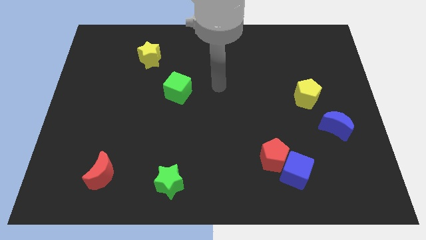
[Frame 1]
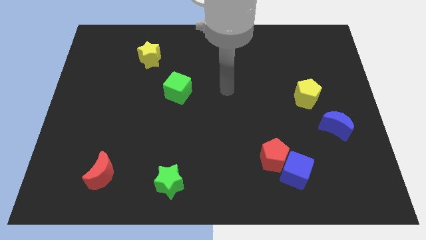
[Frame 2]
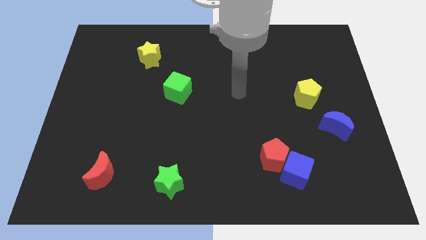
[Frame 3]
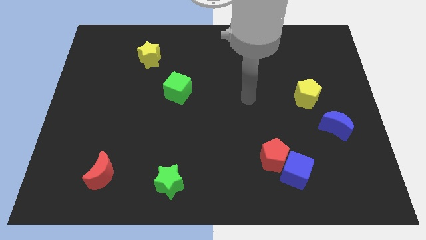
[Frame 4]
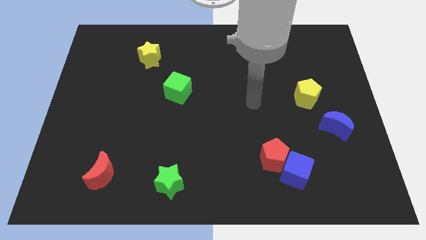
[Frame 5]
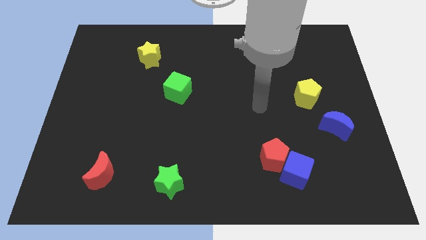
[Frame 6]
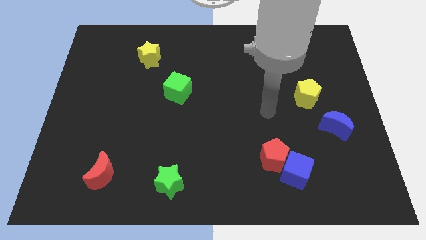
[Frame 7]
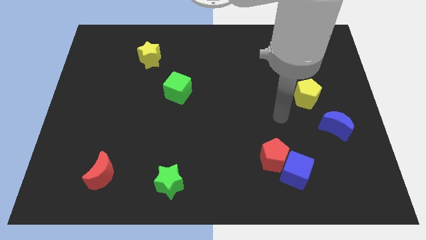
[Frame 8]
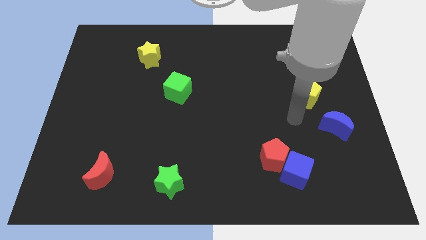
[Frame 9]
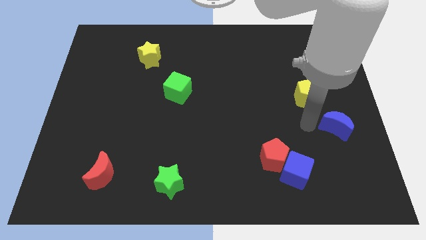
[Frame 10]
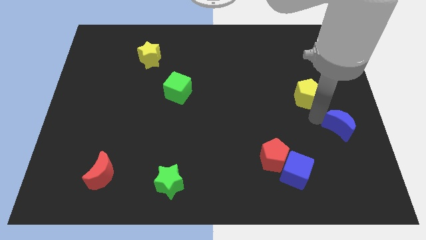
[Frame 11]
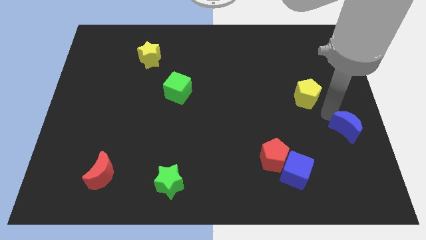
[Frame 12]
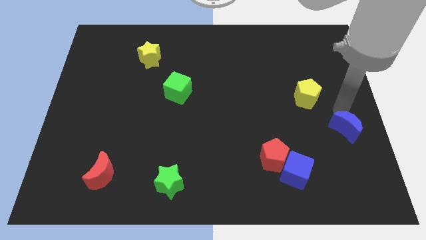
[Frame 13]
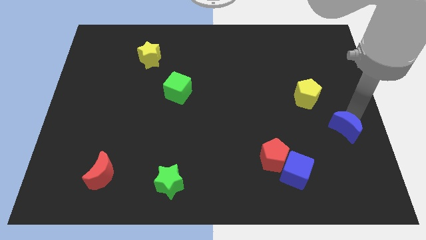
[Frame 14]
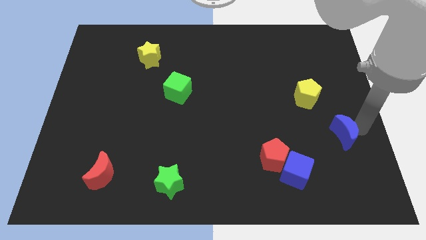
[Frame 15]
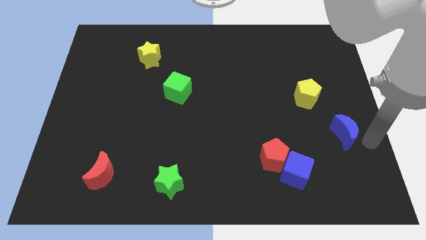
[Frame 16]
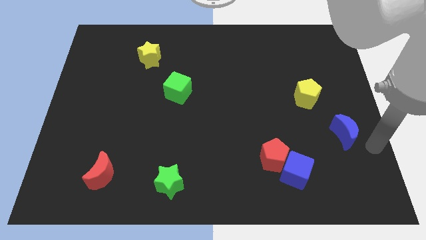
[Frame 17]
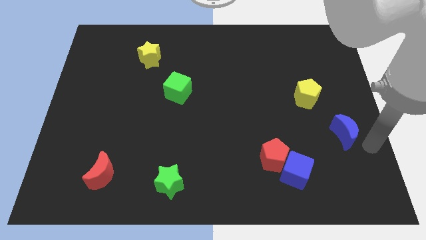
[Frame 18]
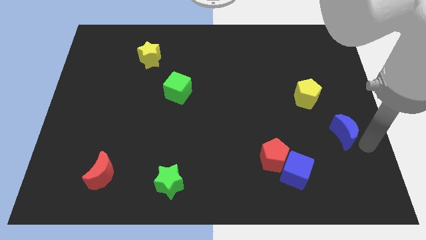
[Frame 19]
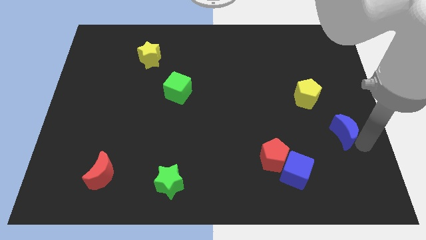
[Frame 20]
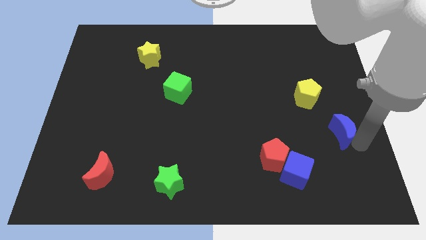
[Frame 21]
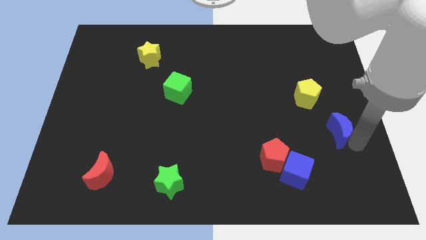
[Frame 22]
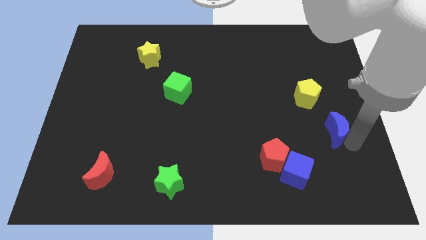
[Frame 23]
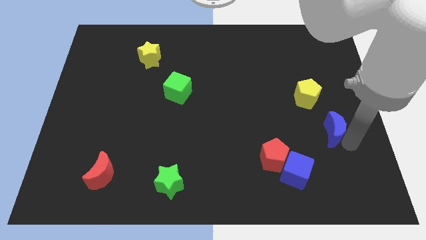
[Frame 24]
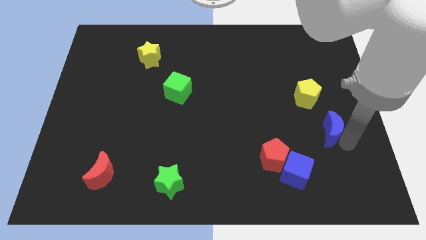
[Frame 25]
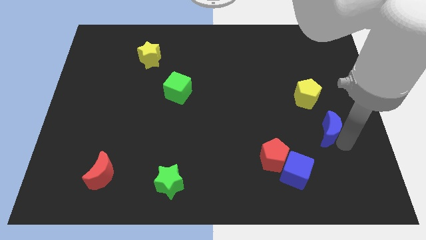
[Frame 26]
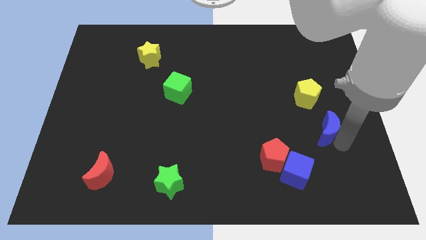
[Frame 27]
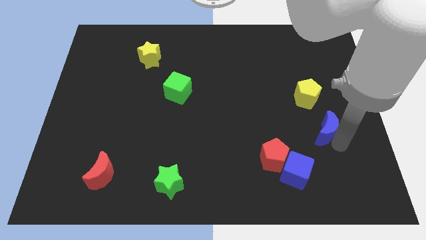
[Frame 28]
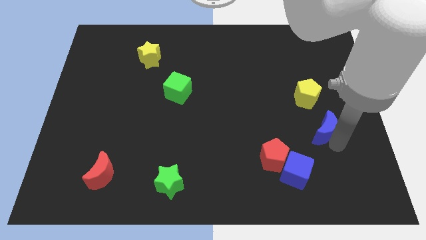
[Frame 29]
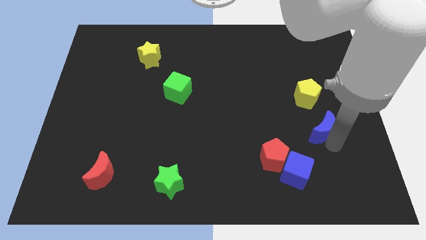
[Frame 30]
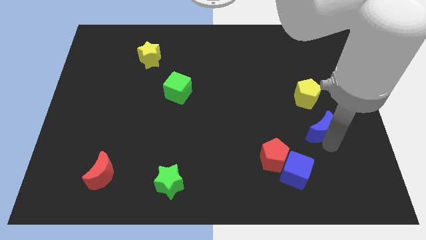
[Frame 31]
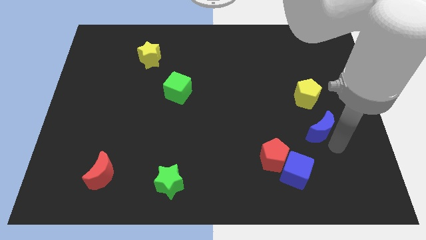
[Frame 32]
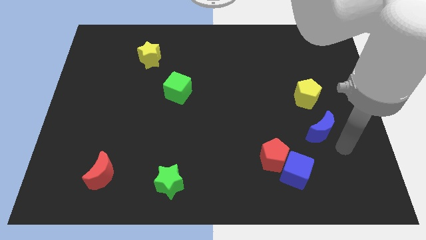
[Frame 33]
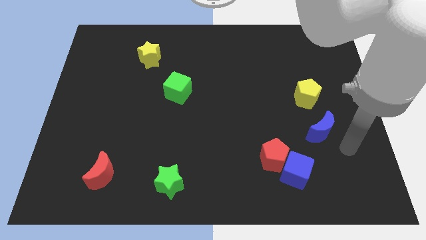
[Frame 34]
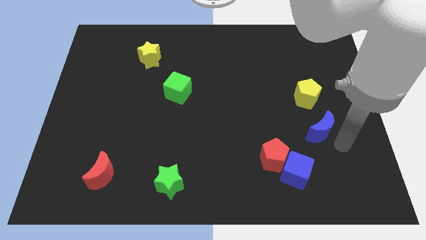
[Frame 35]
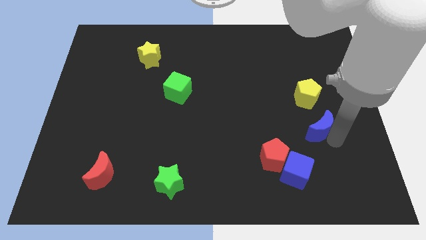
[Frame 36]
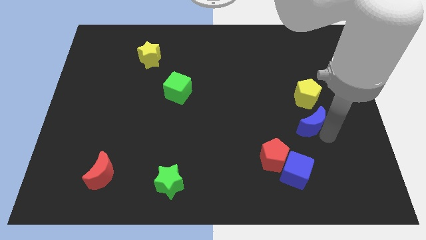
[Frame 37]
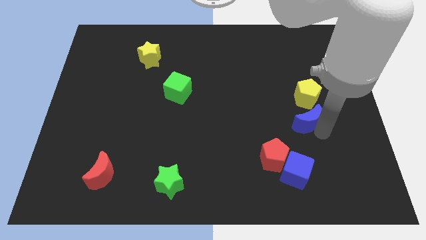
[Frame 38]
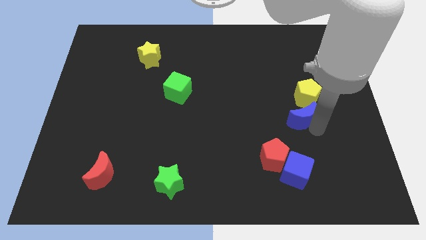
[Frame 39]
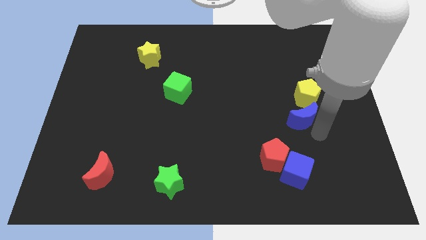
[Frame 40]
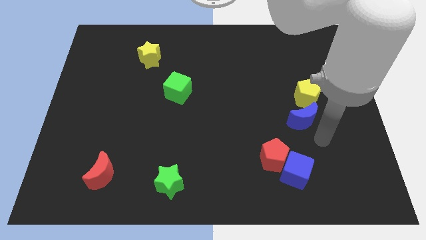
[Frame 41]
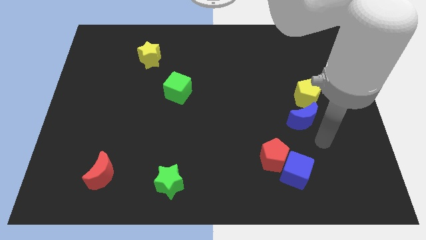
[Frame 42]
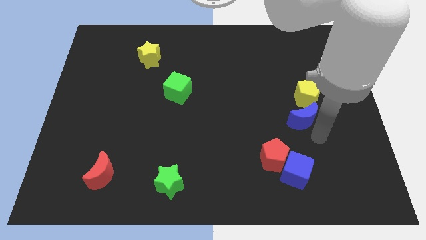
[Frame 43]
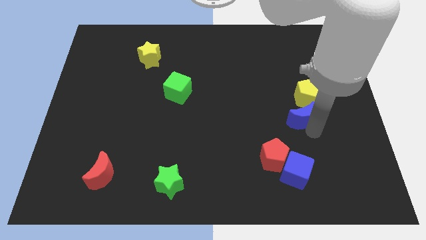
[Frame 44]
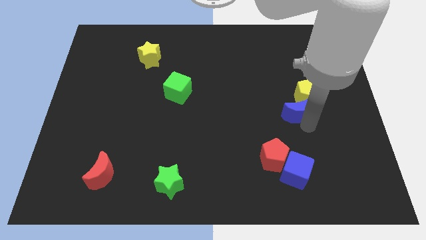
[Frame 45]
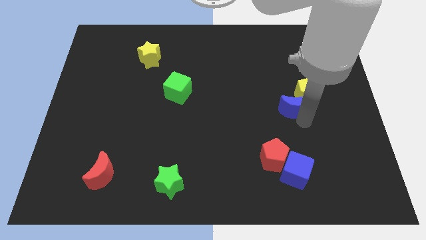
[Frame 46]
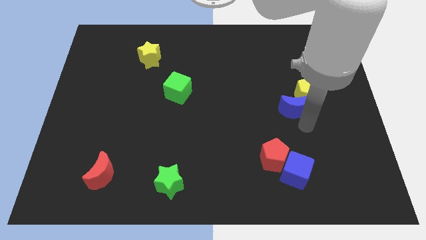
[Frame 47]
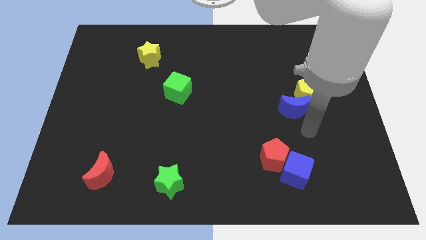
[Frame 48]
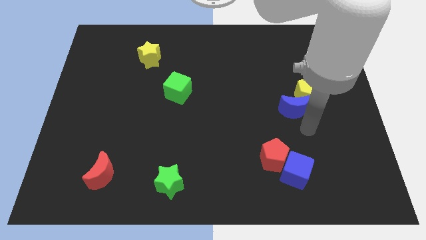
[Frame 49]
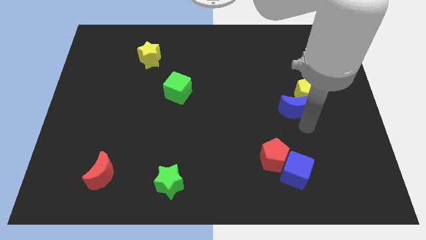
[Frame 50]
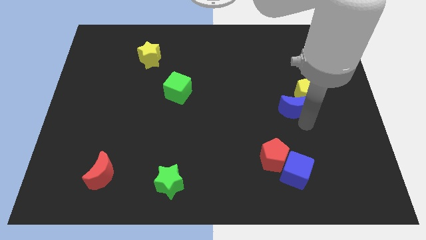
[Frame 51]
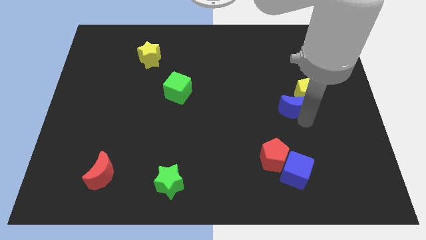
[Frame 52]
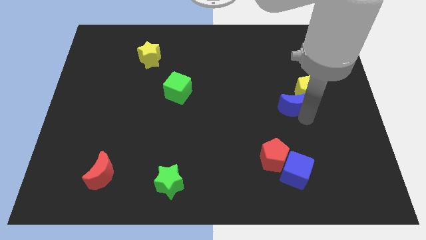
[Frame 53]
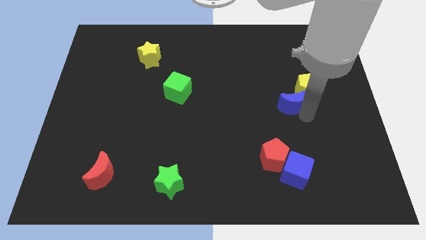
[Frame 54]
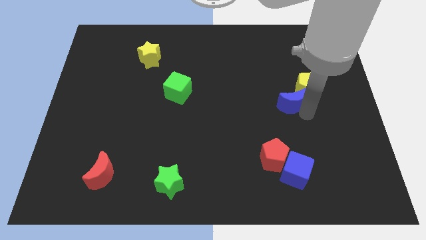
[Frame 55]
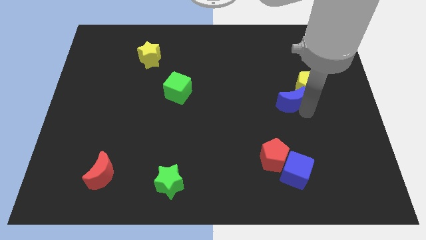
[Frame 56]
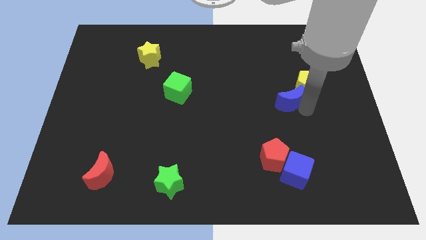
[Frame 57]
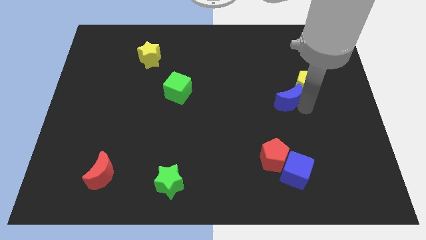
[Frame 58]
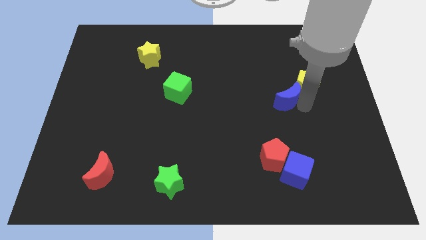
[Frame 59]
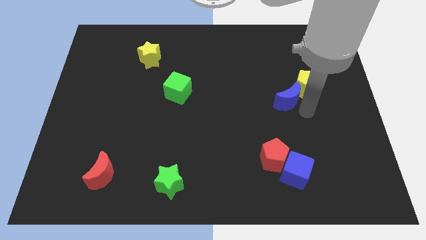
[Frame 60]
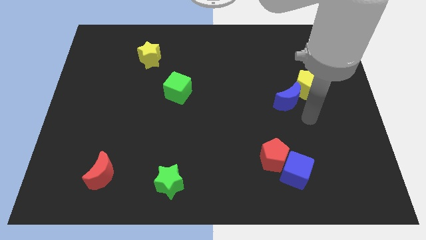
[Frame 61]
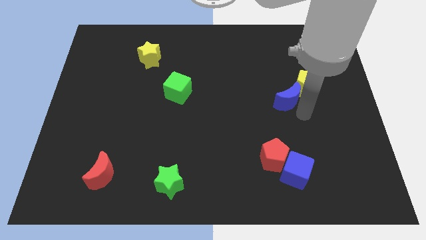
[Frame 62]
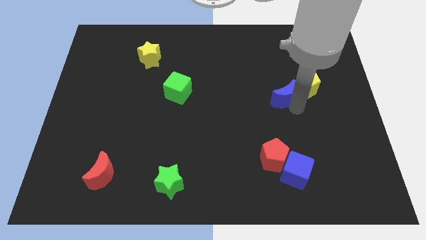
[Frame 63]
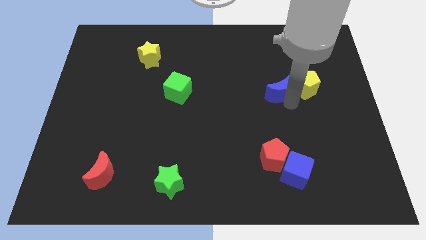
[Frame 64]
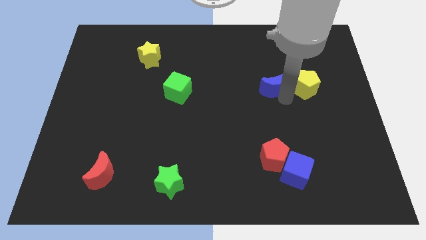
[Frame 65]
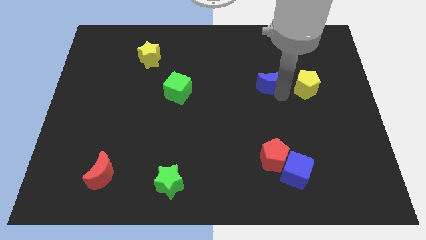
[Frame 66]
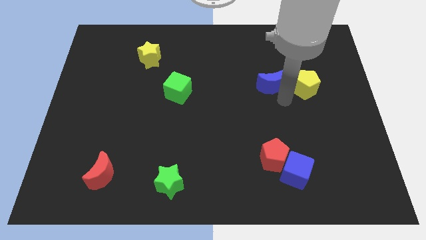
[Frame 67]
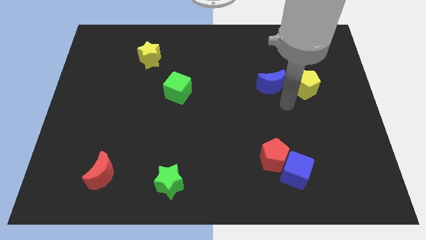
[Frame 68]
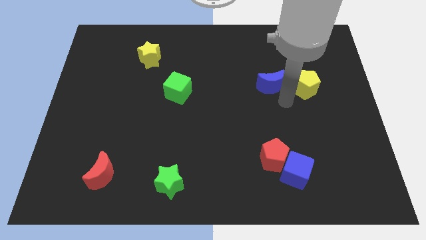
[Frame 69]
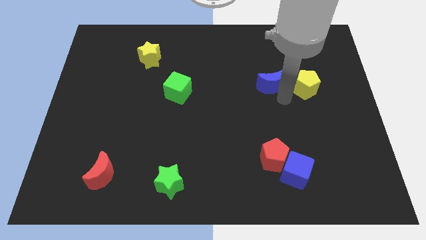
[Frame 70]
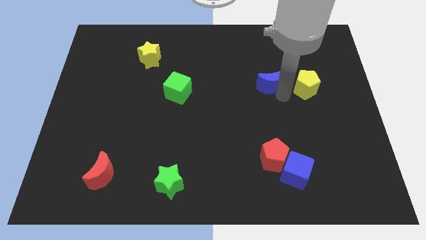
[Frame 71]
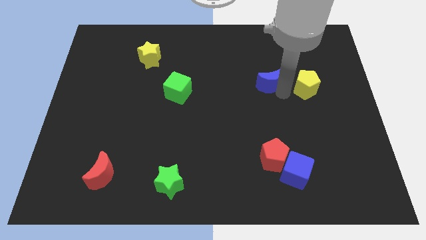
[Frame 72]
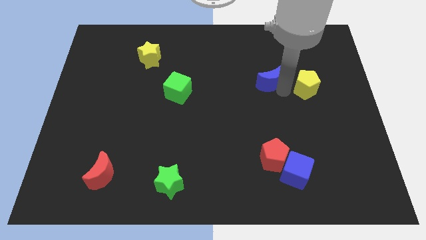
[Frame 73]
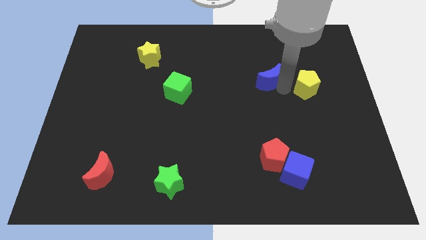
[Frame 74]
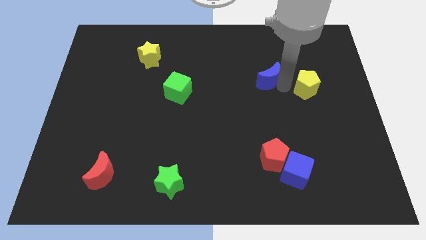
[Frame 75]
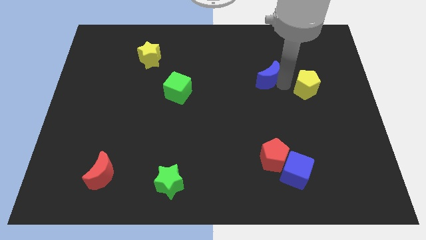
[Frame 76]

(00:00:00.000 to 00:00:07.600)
move the blue moon up and to the left
